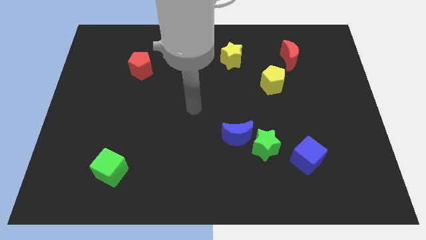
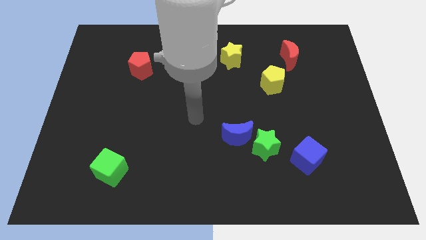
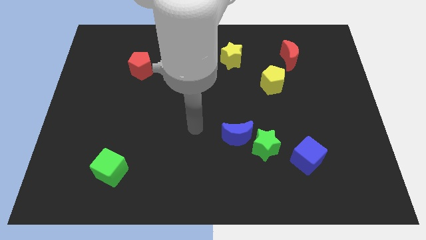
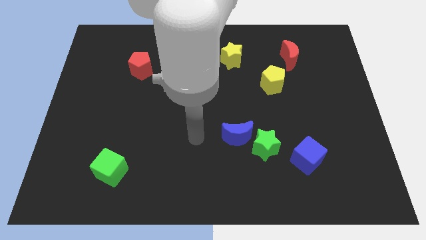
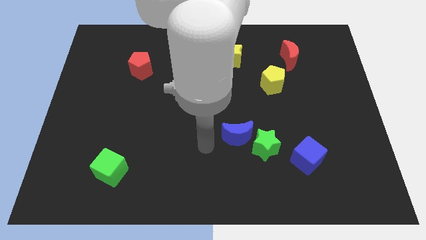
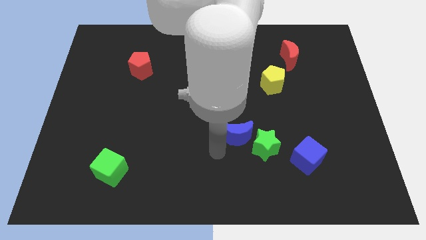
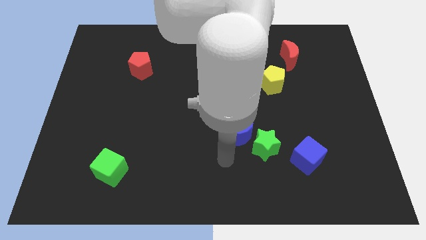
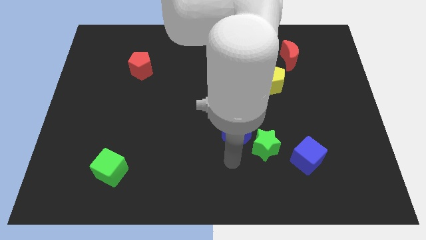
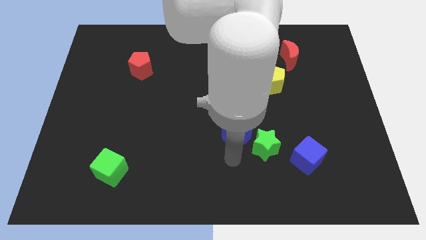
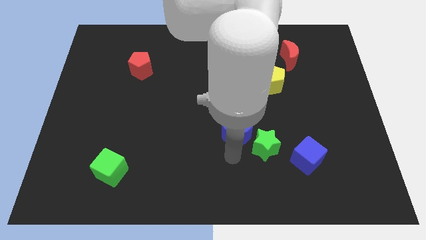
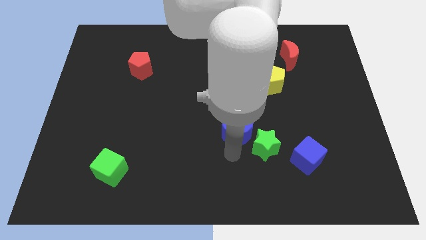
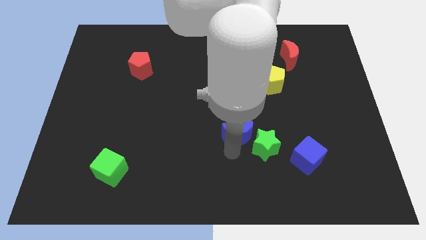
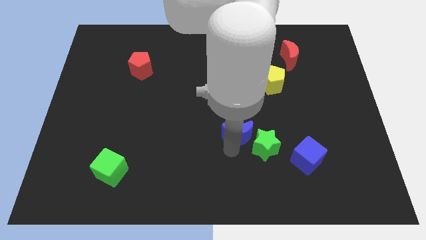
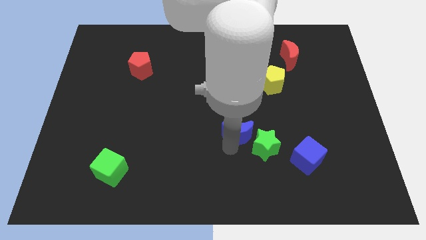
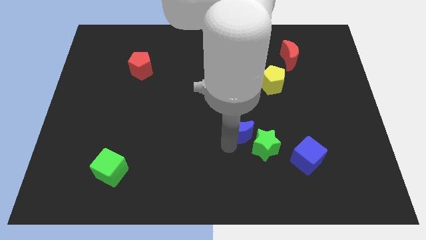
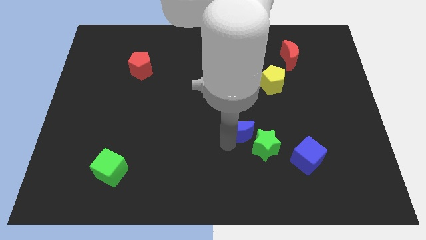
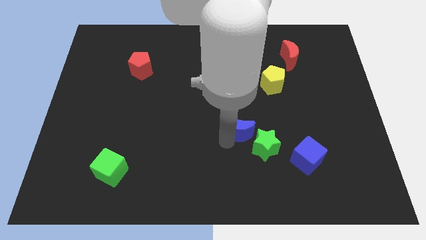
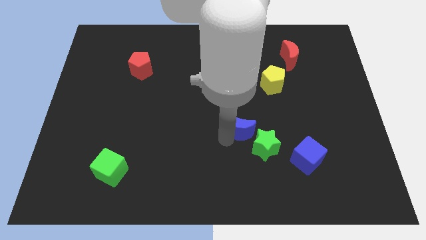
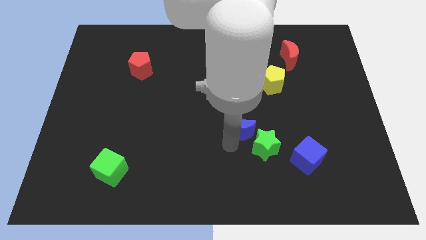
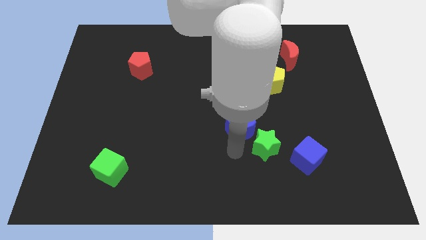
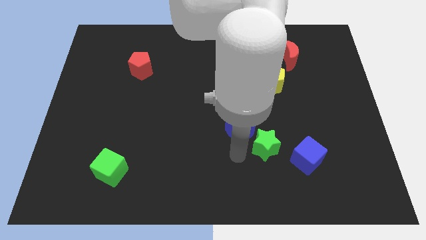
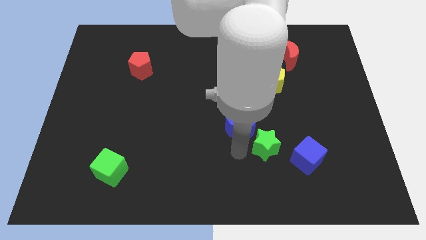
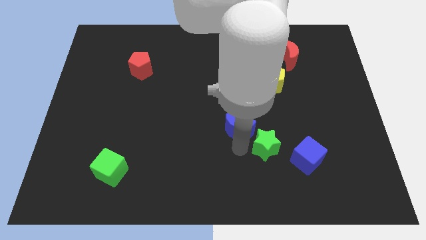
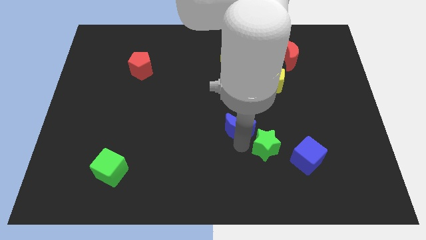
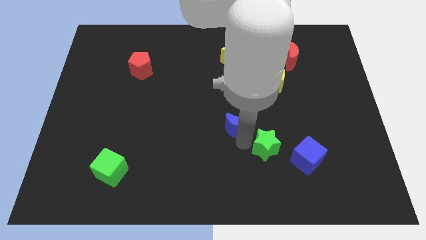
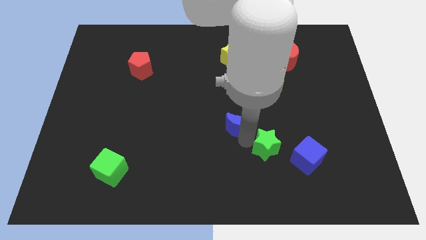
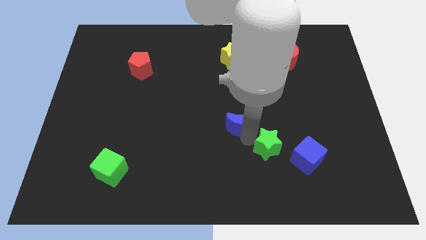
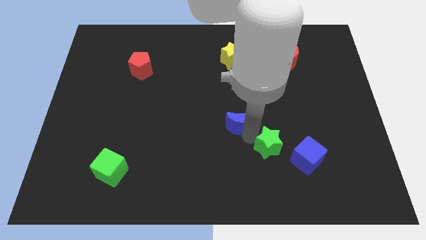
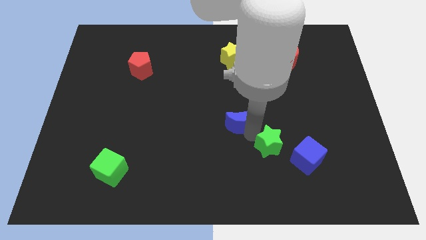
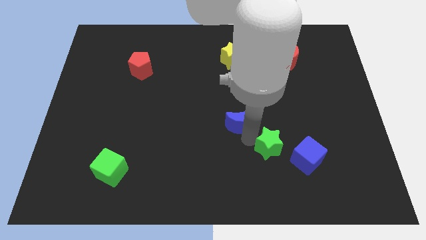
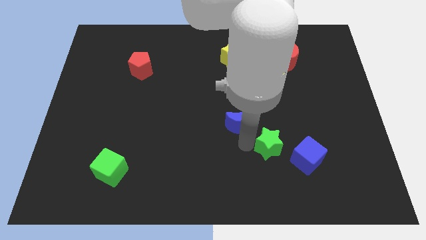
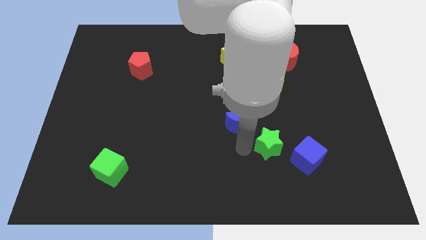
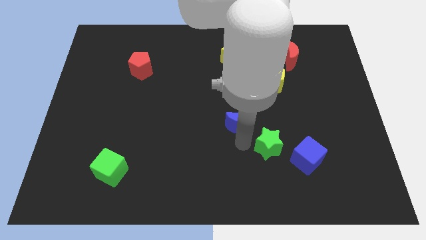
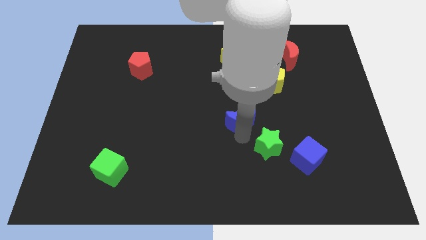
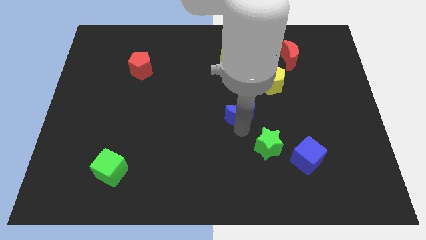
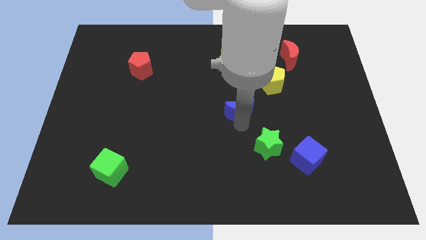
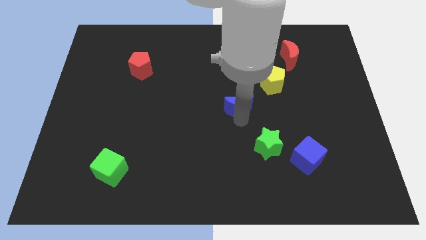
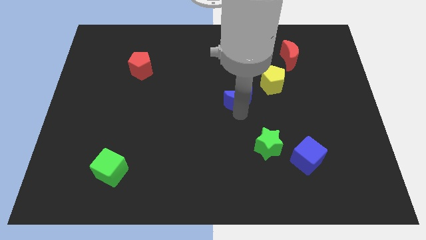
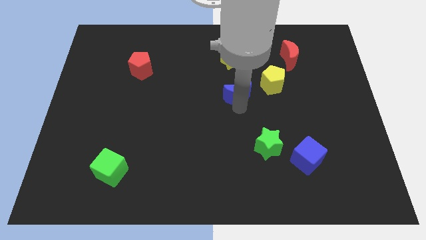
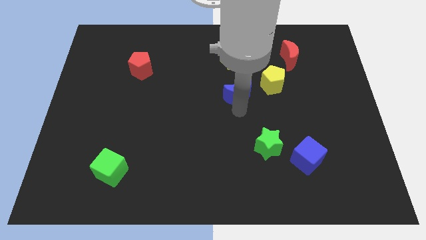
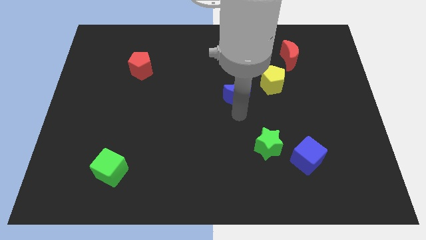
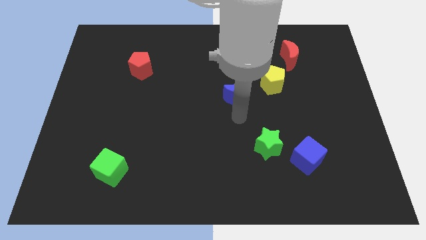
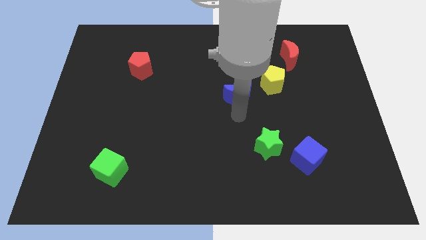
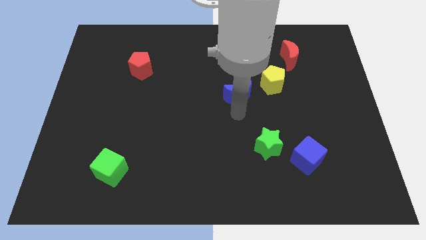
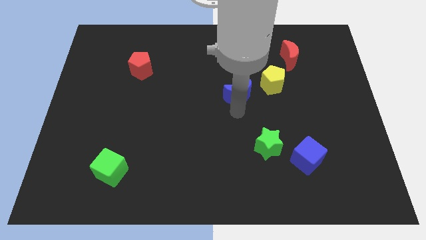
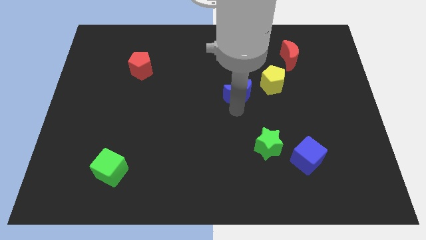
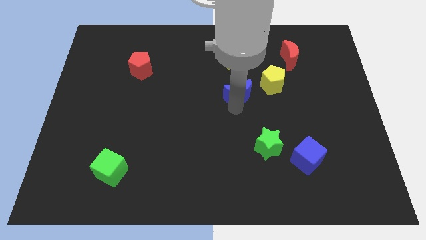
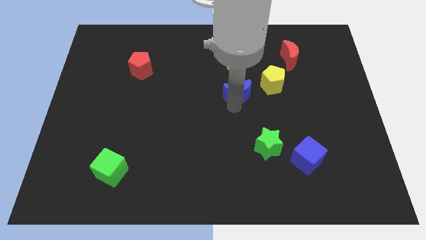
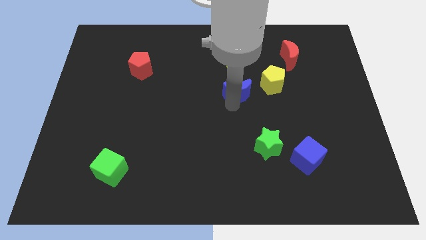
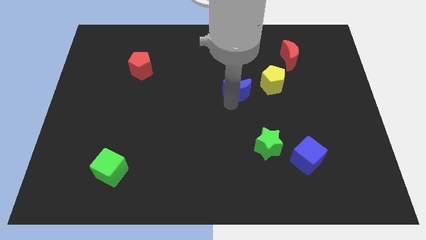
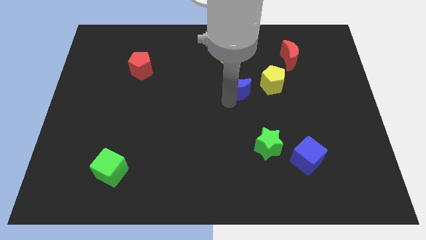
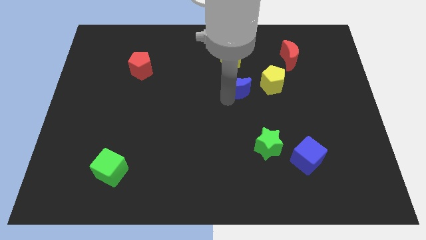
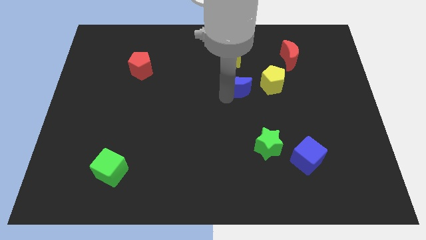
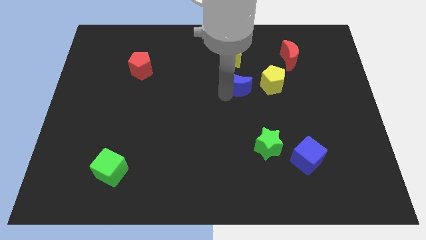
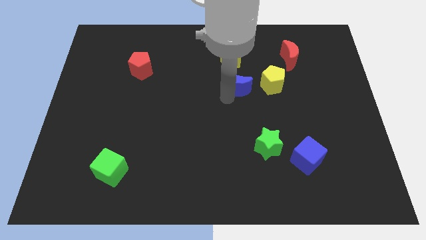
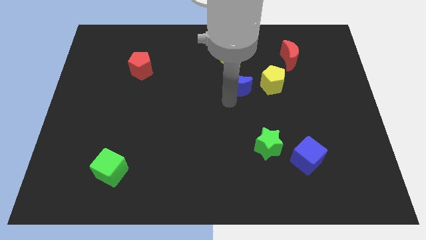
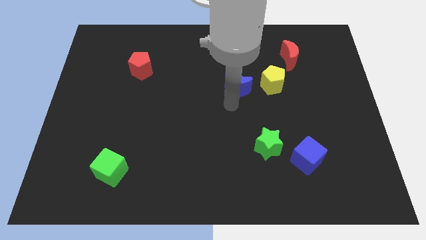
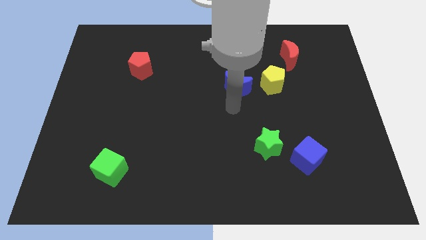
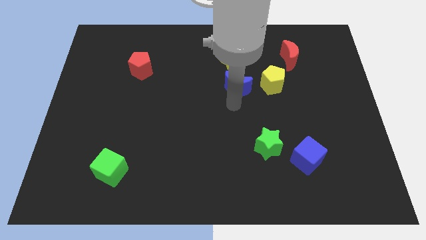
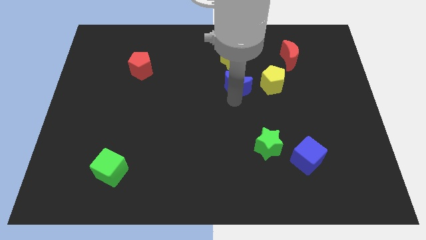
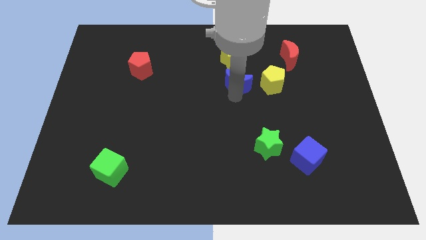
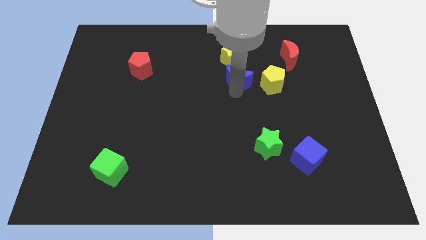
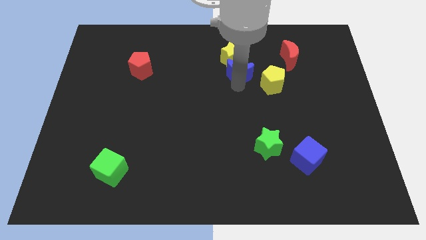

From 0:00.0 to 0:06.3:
put the blue moon next to the yellow star

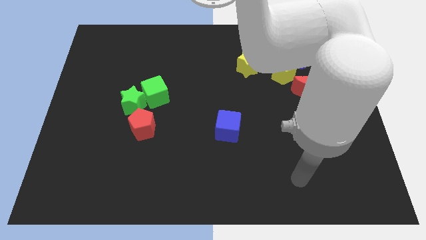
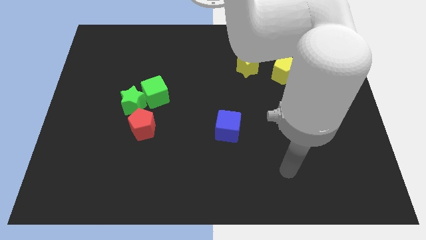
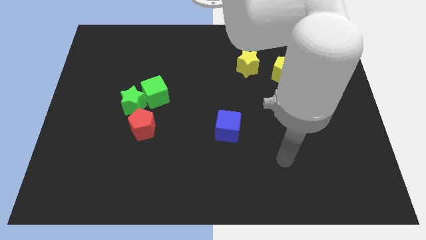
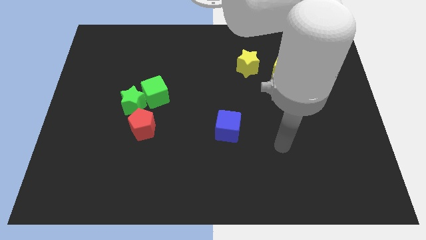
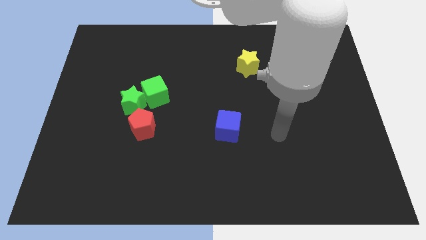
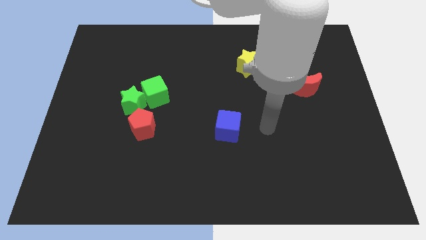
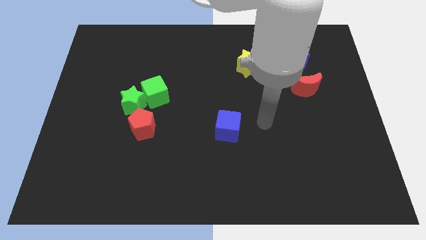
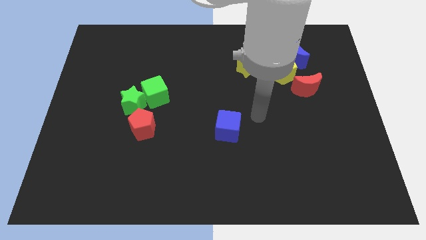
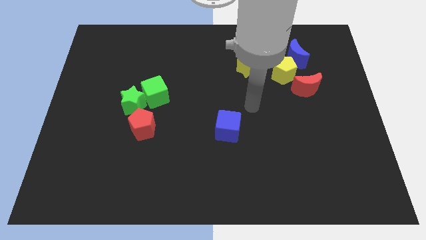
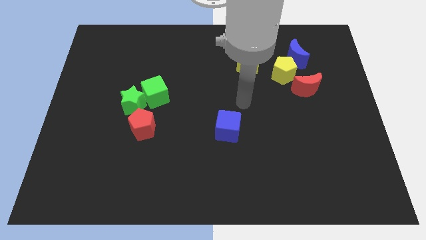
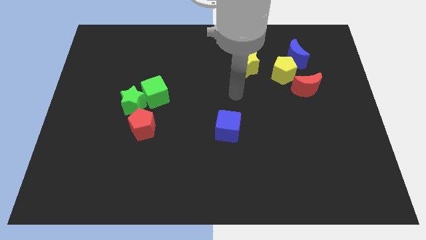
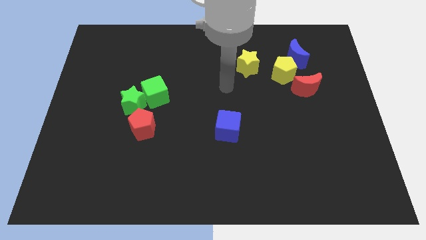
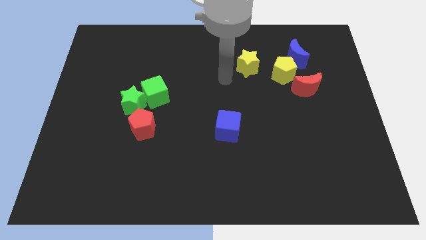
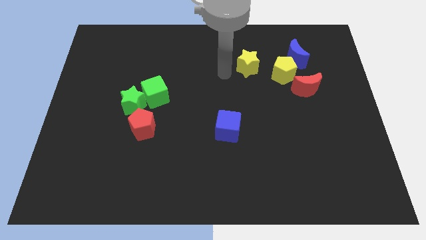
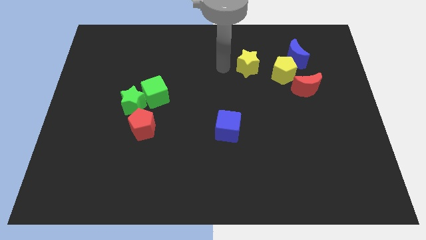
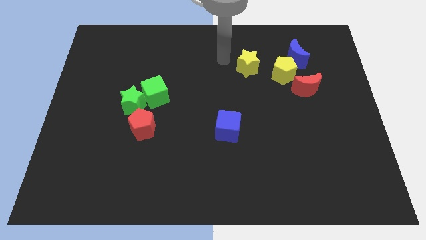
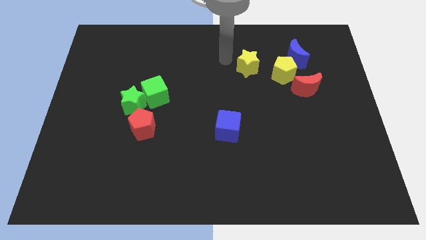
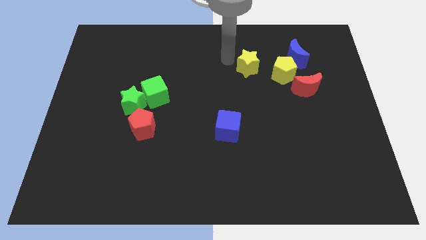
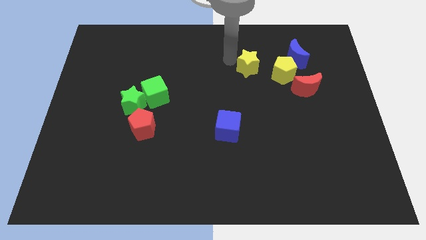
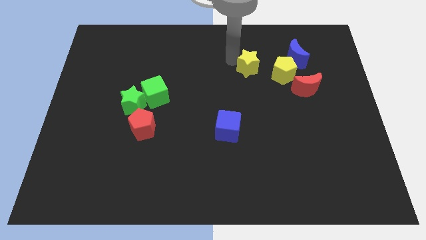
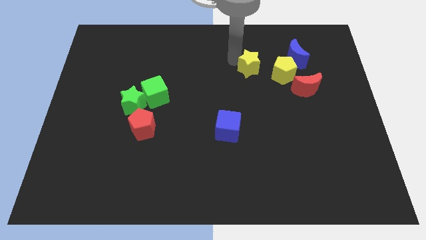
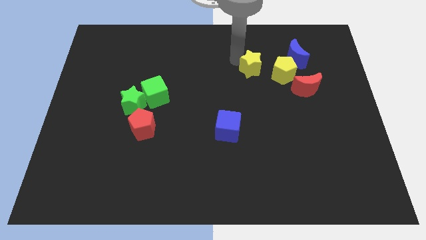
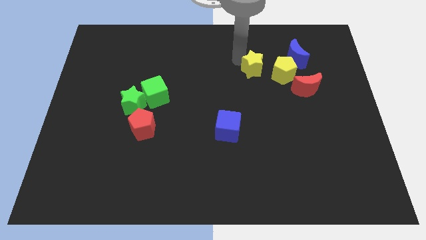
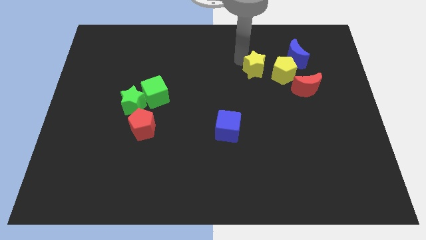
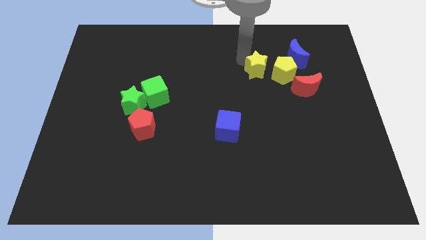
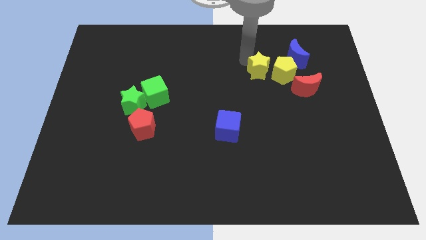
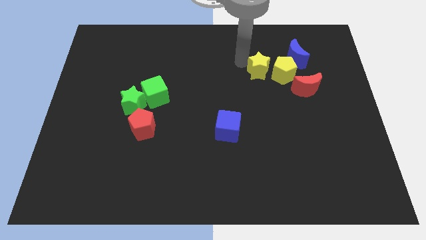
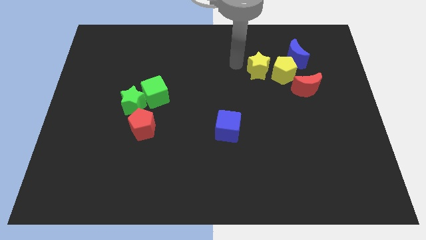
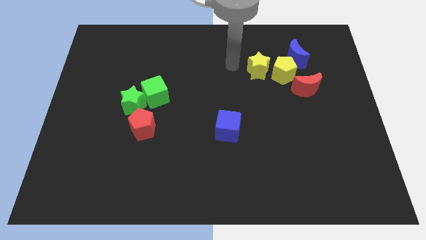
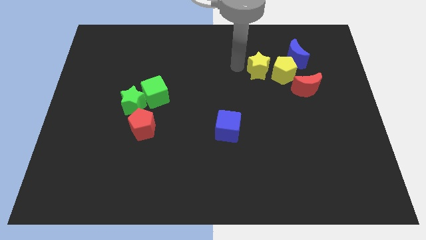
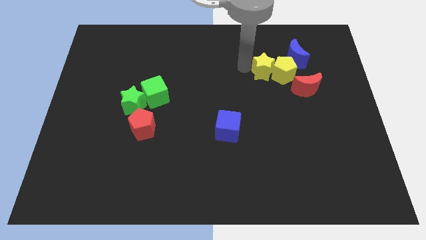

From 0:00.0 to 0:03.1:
push the yellow star next to the yellow pentagon
